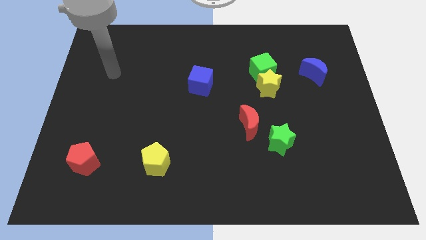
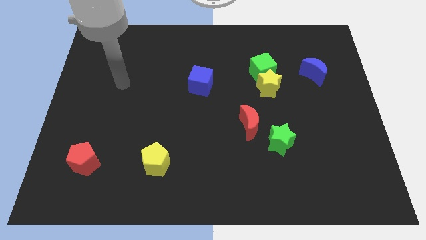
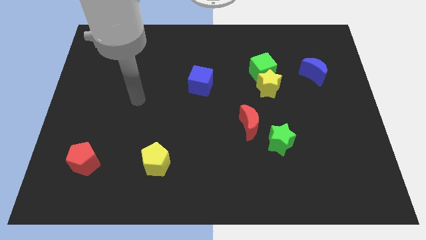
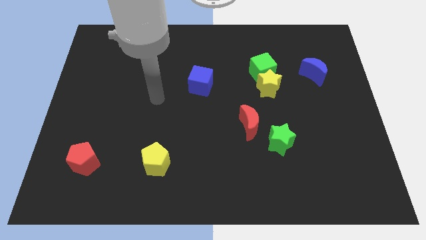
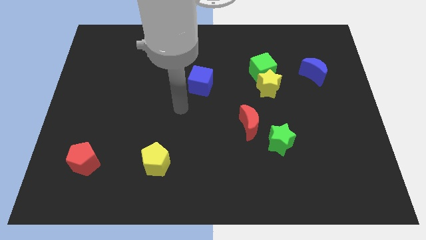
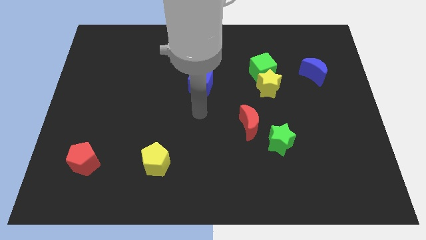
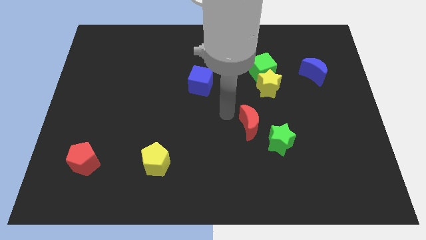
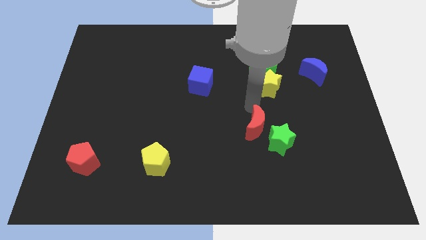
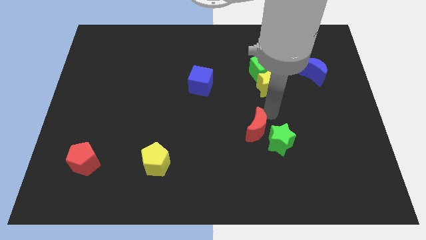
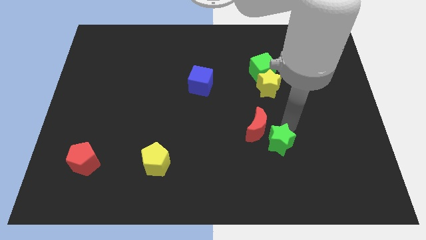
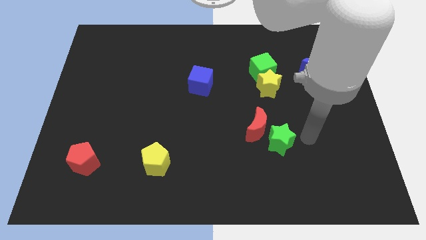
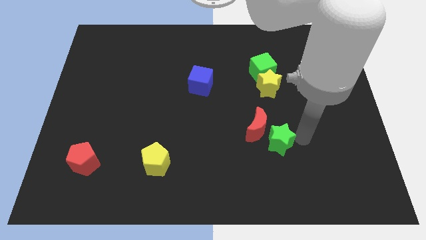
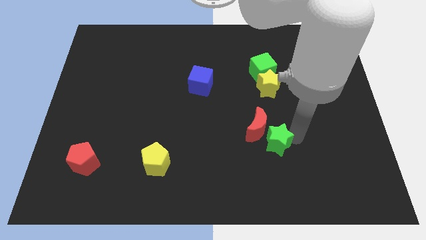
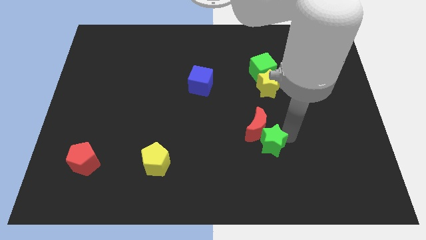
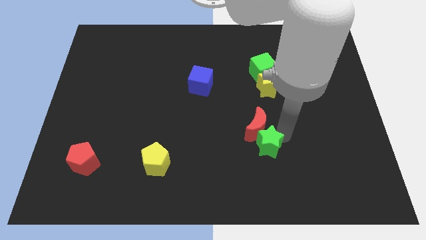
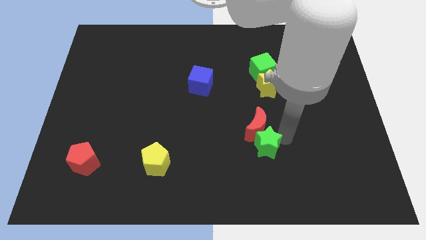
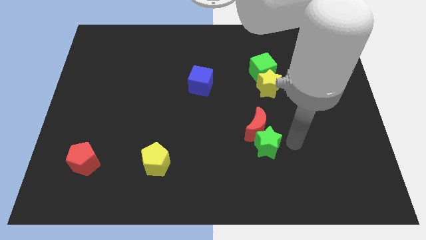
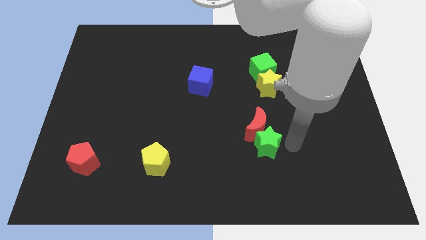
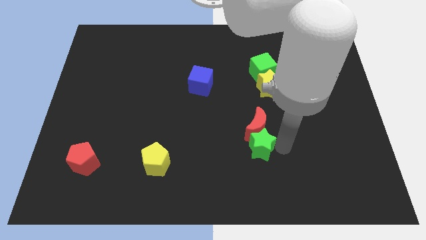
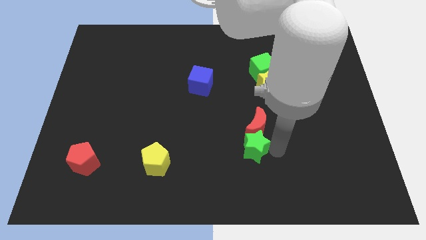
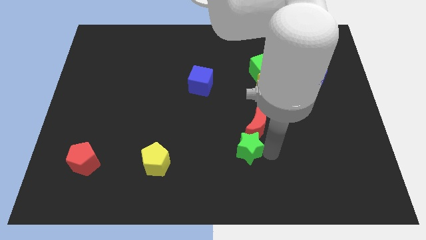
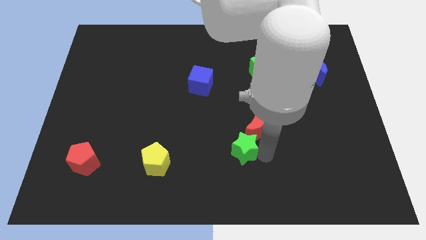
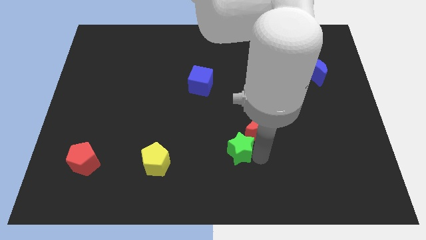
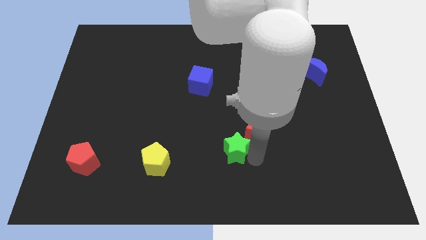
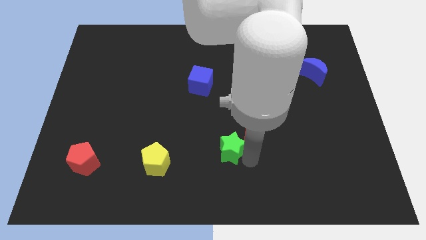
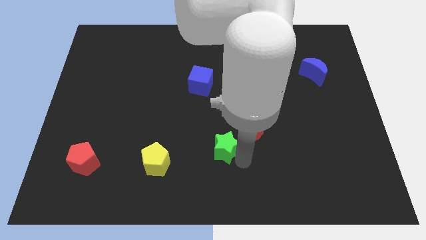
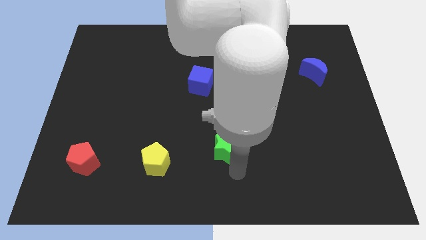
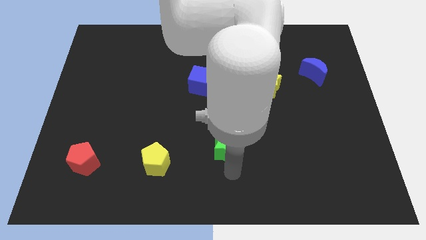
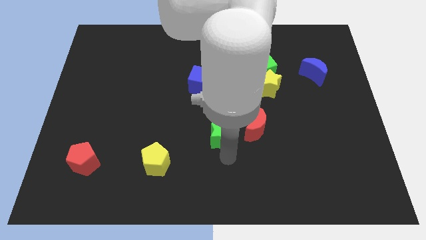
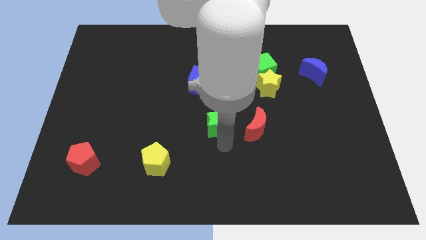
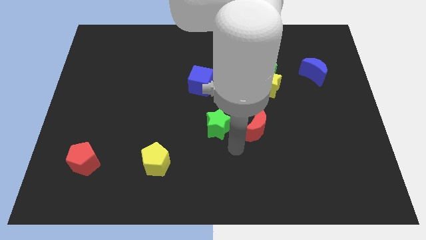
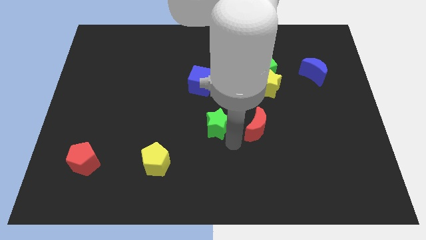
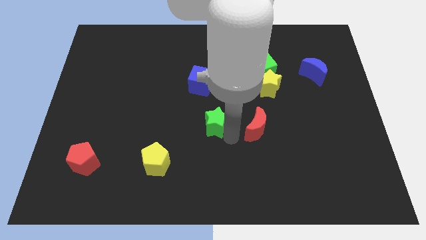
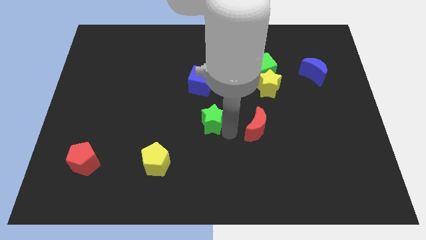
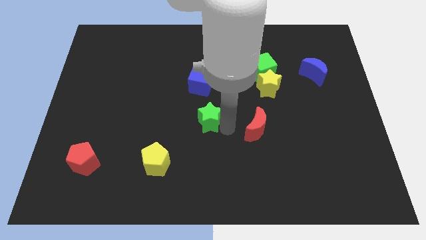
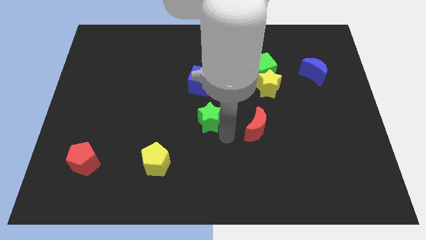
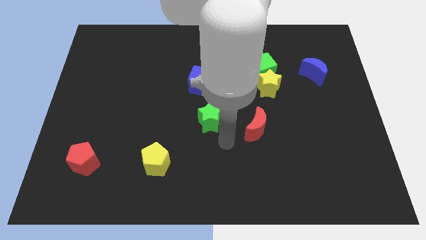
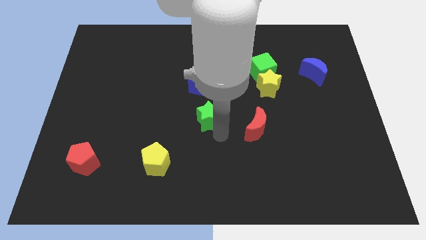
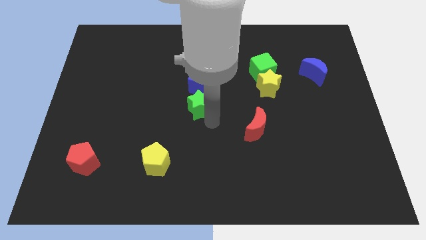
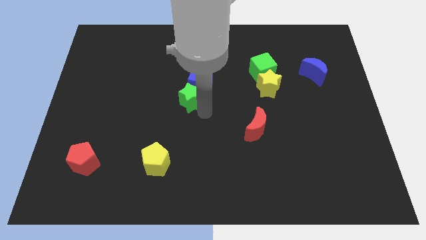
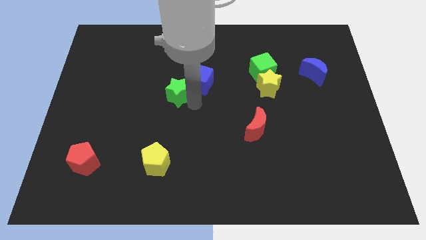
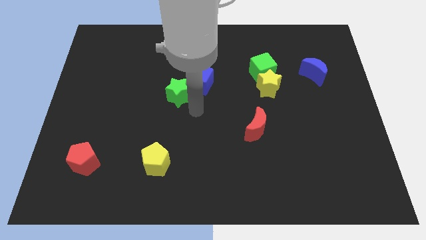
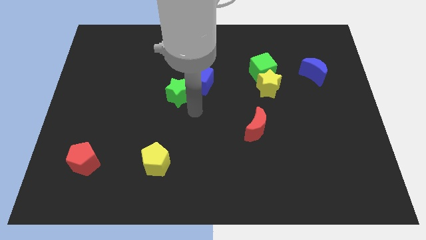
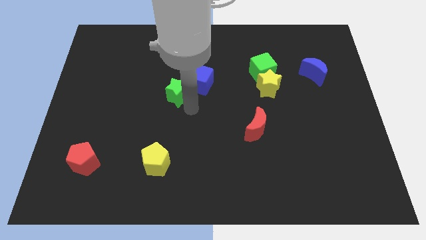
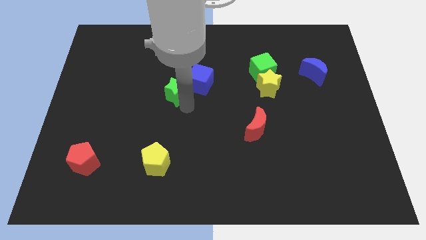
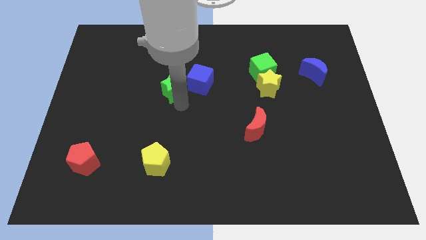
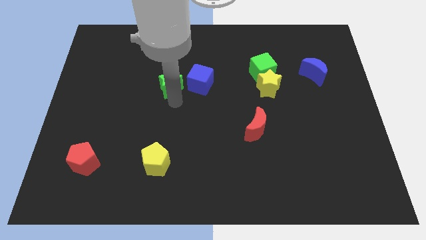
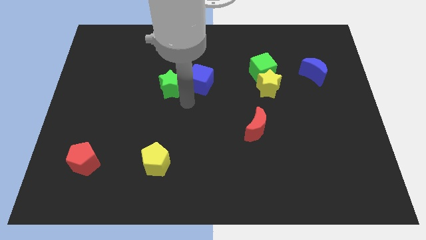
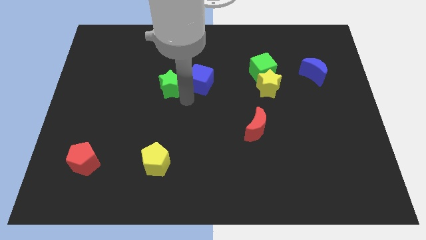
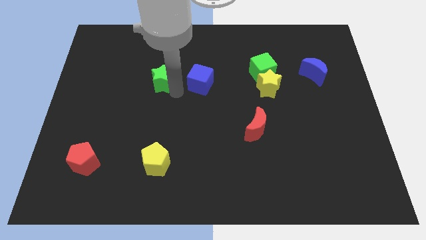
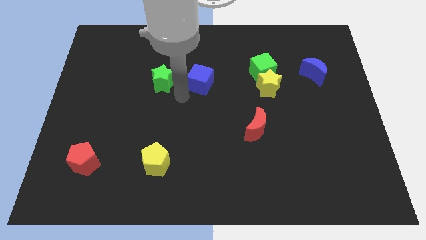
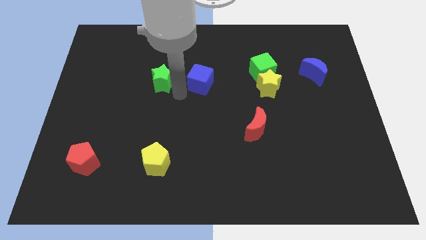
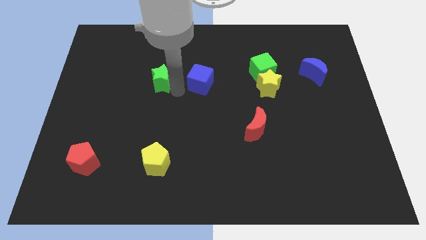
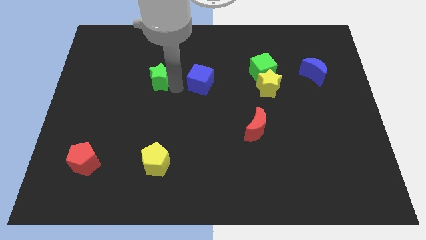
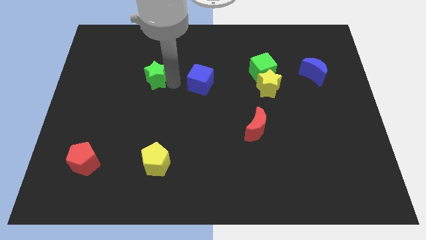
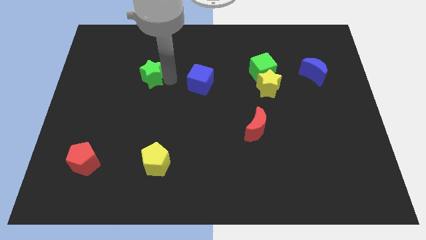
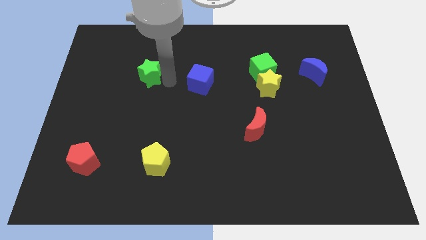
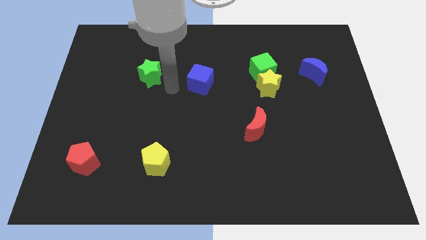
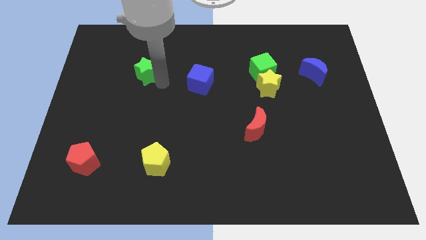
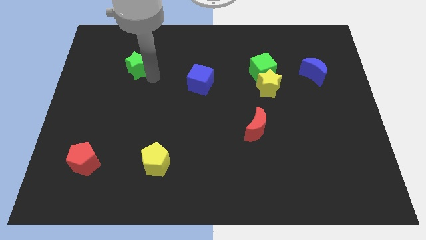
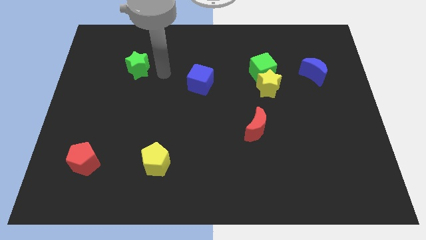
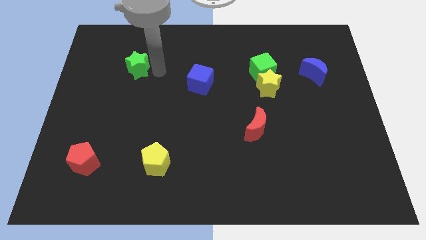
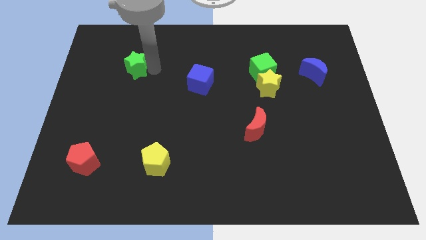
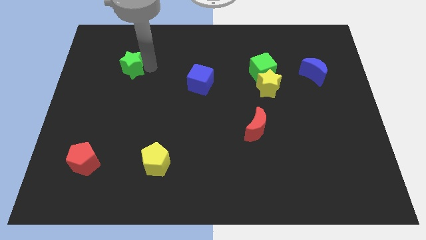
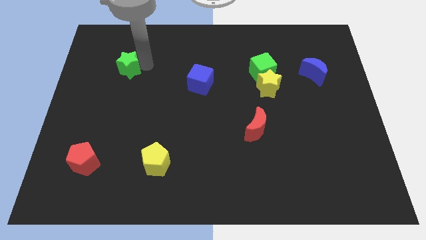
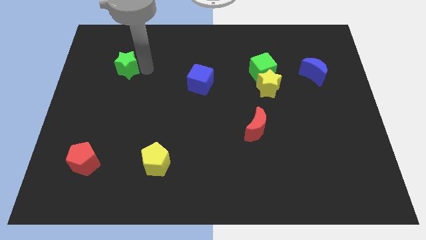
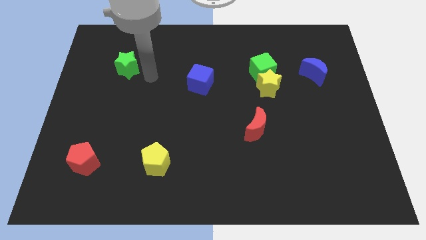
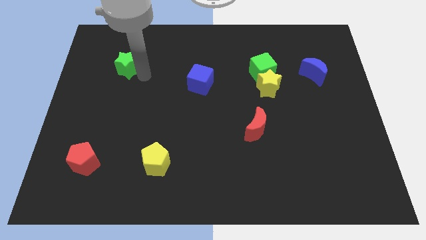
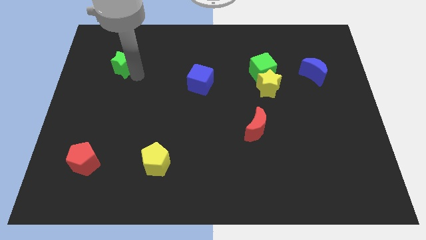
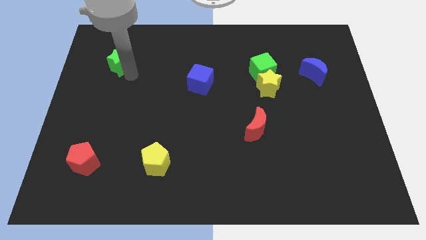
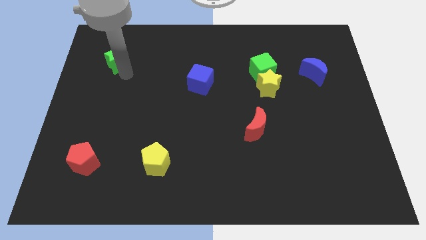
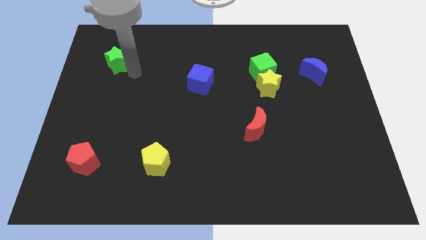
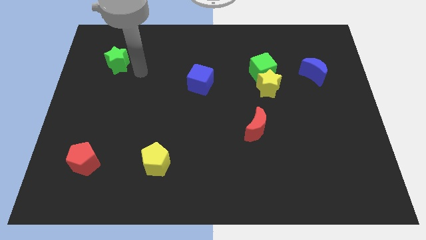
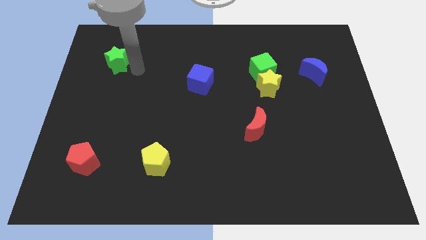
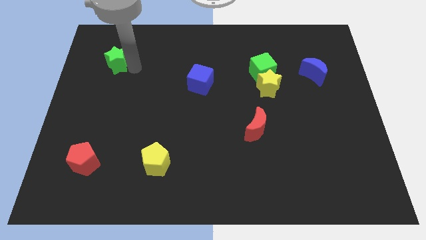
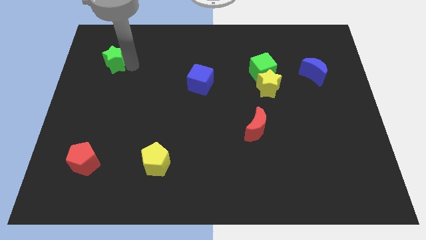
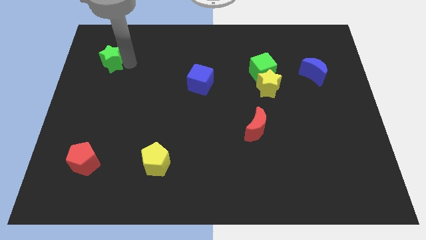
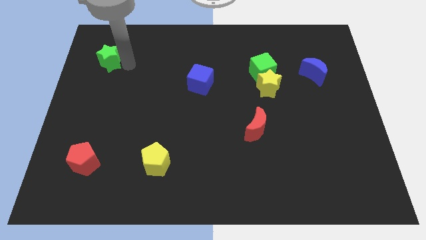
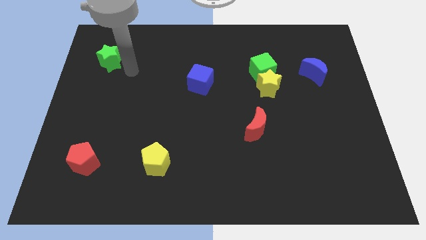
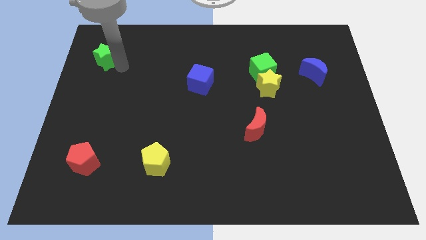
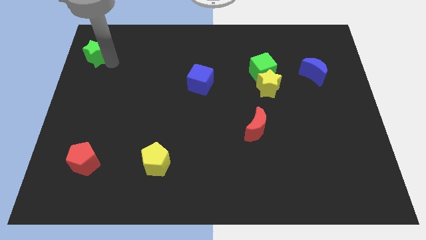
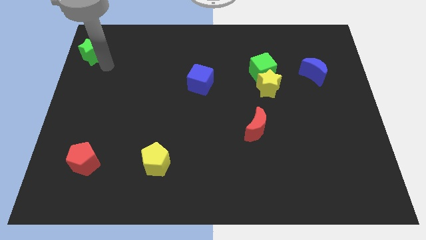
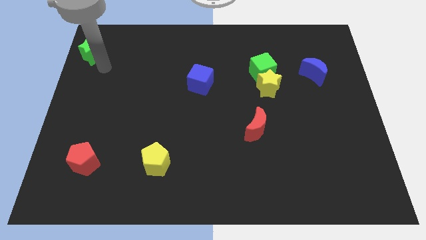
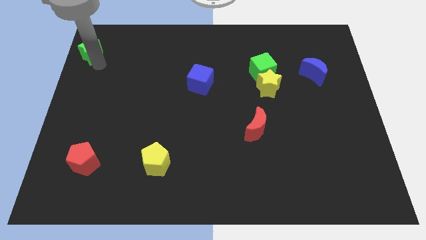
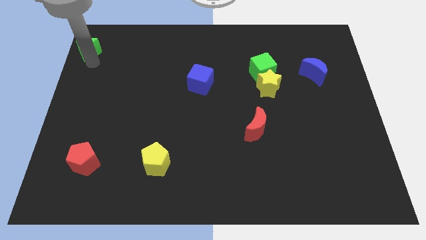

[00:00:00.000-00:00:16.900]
push the green star to the top left
